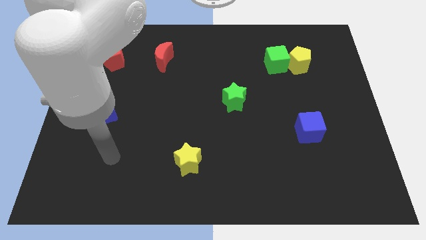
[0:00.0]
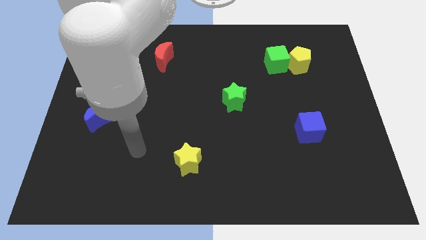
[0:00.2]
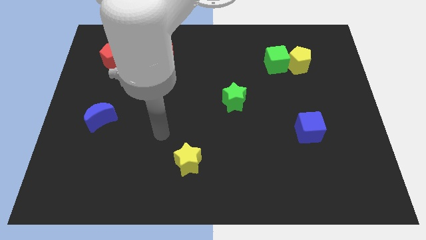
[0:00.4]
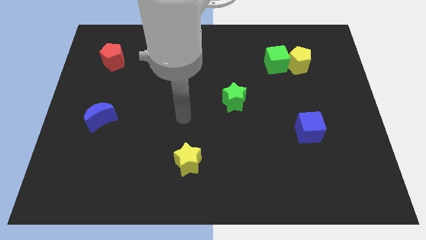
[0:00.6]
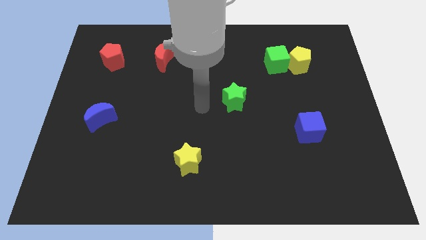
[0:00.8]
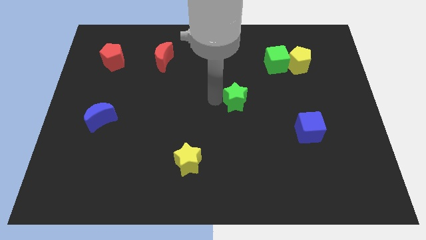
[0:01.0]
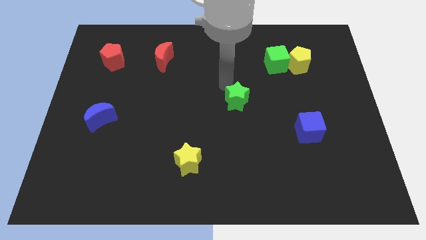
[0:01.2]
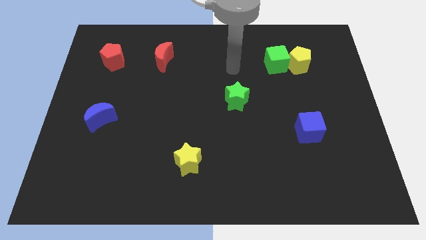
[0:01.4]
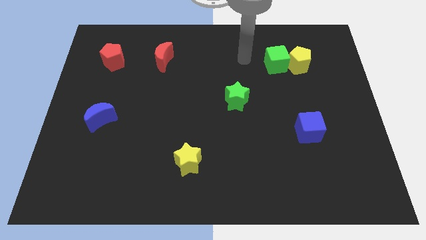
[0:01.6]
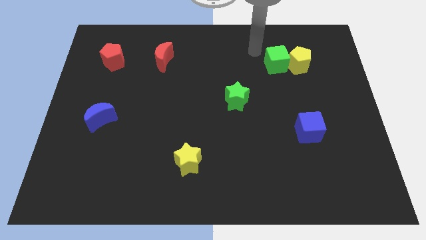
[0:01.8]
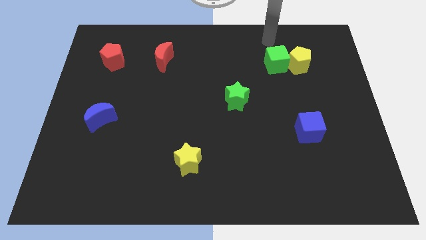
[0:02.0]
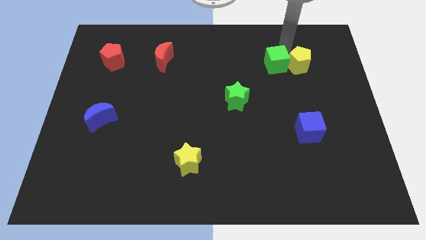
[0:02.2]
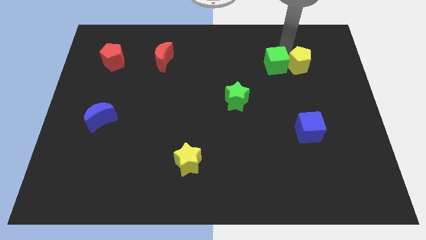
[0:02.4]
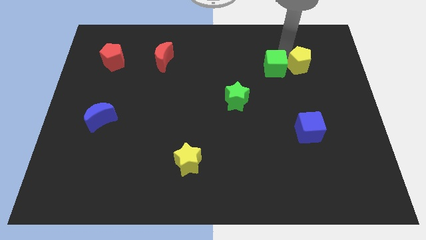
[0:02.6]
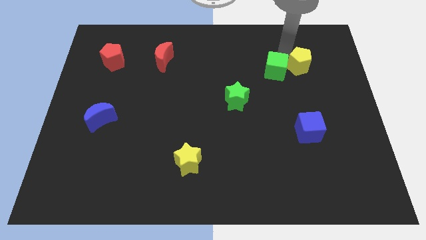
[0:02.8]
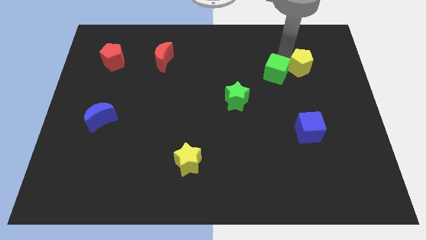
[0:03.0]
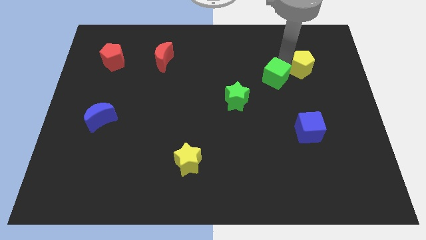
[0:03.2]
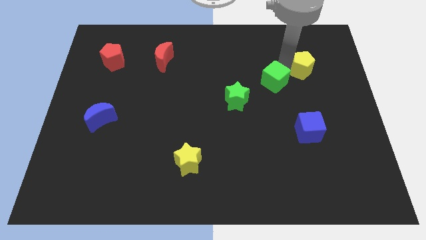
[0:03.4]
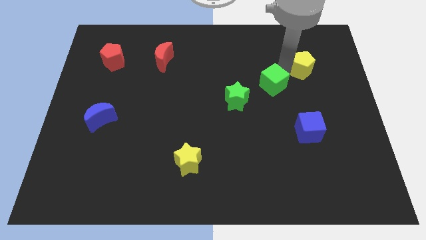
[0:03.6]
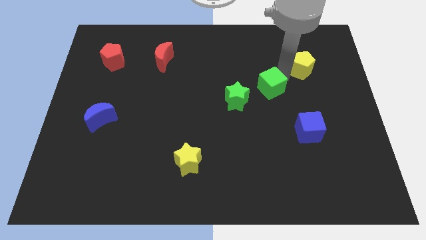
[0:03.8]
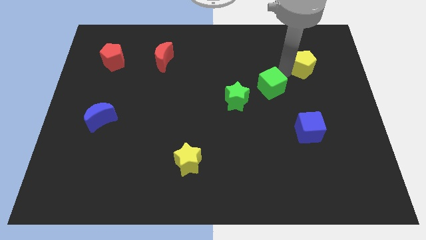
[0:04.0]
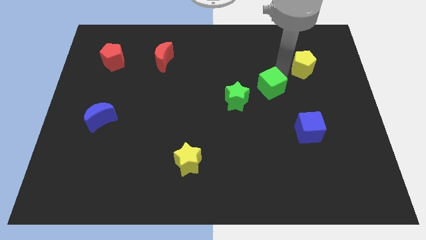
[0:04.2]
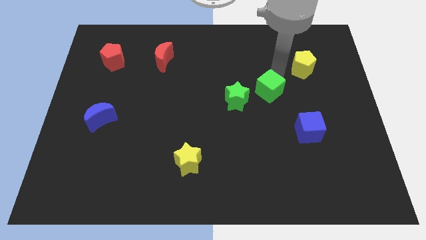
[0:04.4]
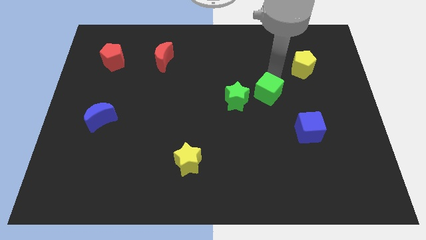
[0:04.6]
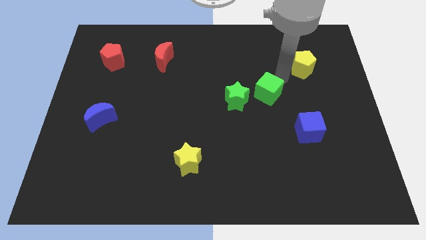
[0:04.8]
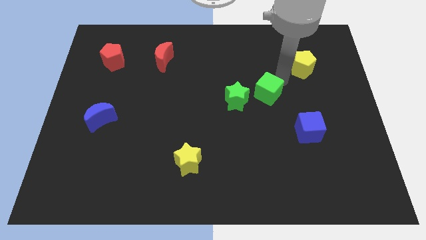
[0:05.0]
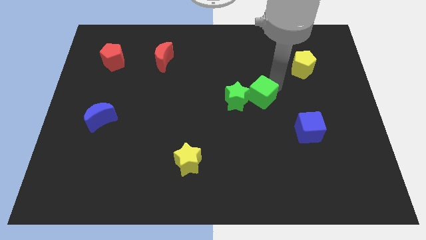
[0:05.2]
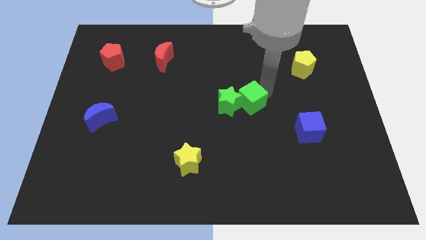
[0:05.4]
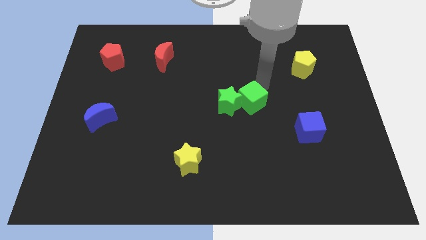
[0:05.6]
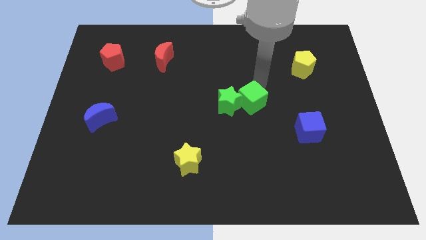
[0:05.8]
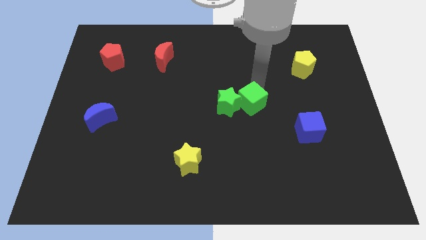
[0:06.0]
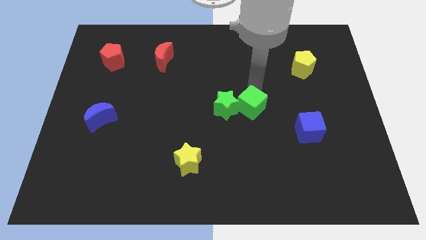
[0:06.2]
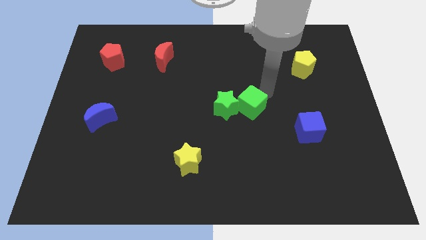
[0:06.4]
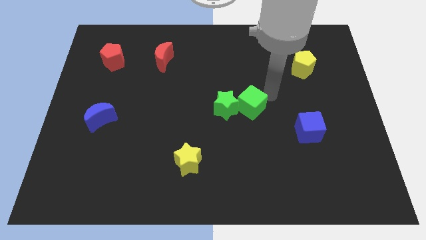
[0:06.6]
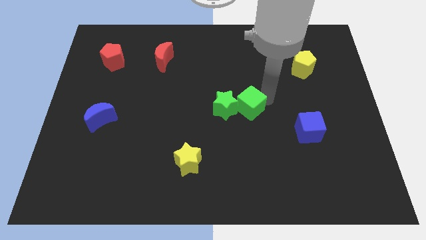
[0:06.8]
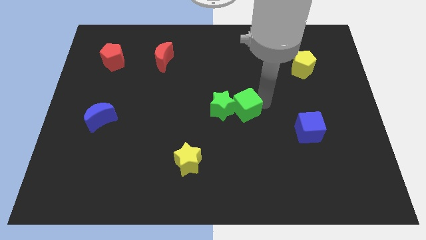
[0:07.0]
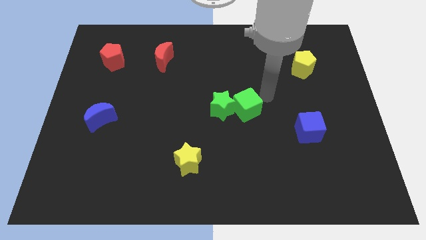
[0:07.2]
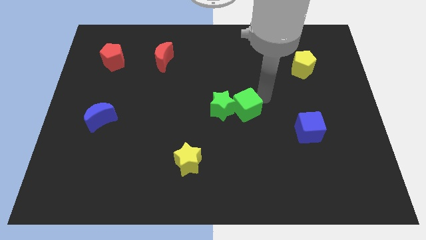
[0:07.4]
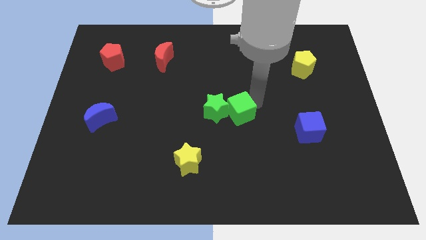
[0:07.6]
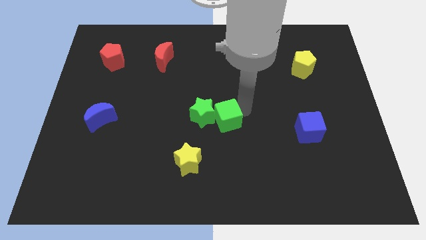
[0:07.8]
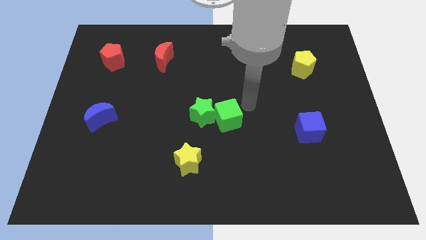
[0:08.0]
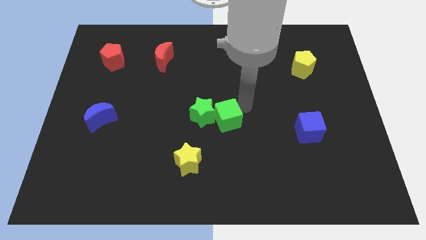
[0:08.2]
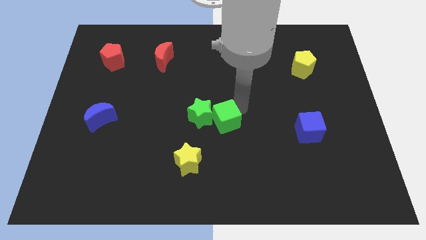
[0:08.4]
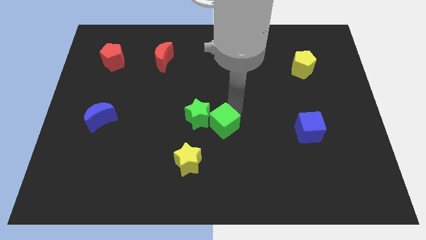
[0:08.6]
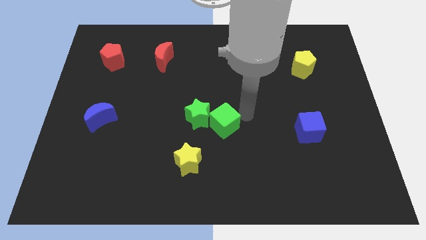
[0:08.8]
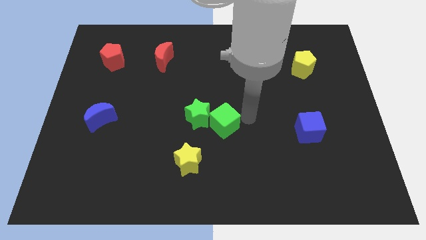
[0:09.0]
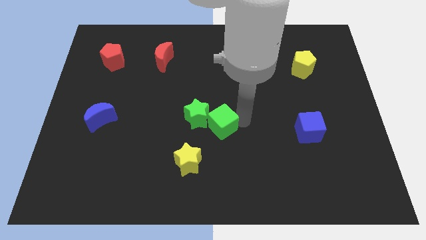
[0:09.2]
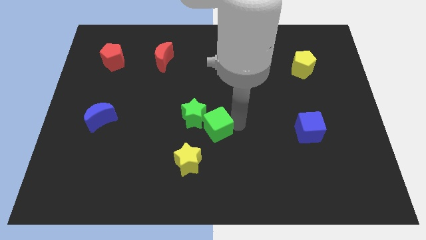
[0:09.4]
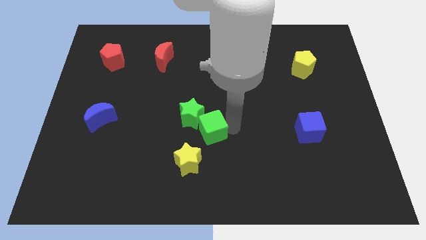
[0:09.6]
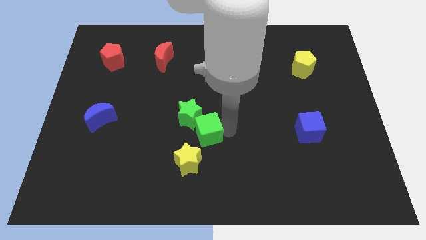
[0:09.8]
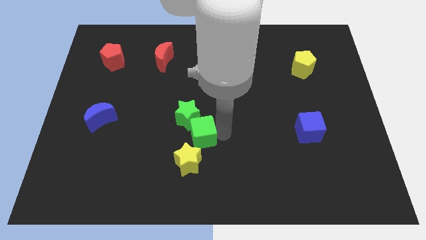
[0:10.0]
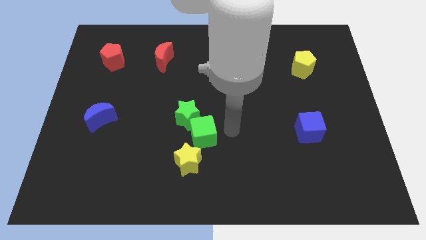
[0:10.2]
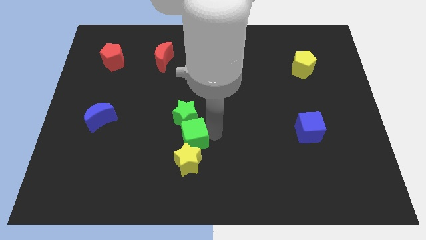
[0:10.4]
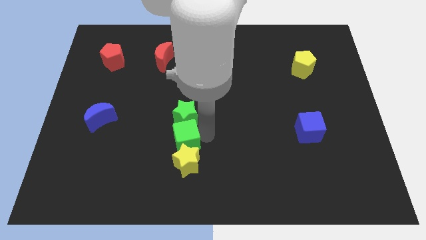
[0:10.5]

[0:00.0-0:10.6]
slide the green cube diagonally up and to the left of the yellow star

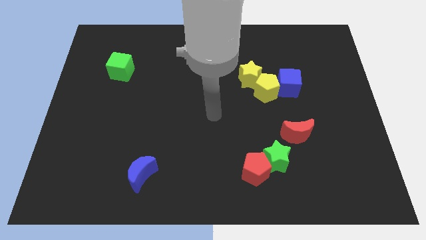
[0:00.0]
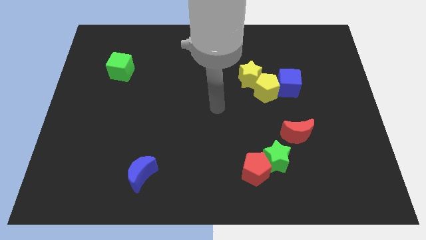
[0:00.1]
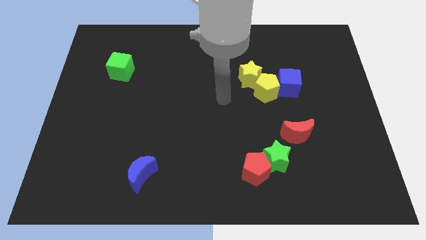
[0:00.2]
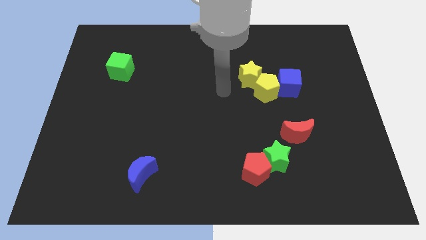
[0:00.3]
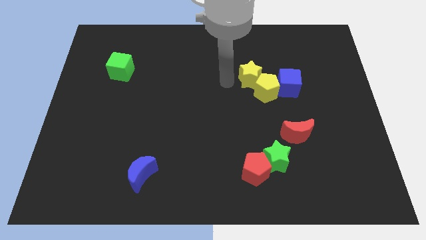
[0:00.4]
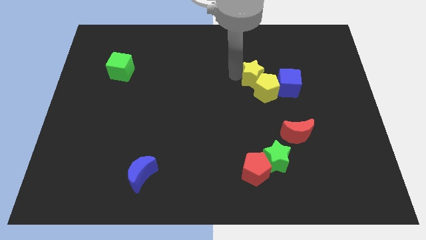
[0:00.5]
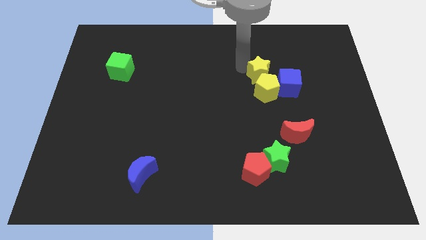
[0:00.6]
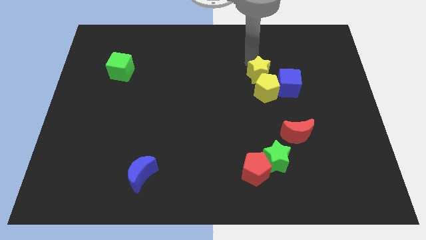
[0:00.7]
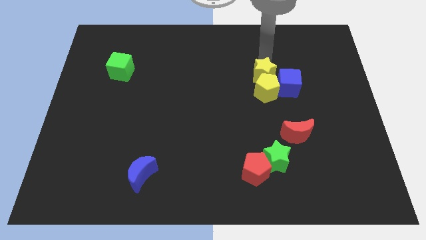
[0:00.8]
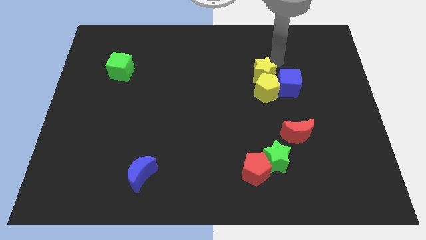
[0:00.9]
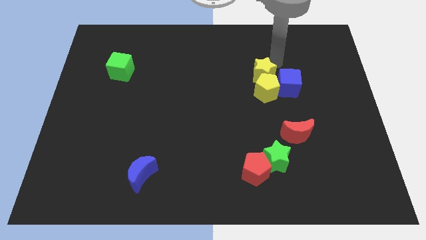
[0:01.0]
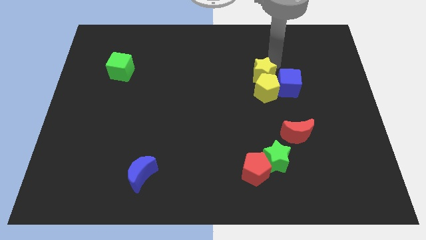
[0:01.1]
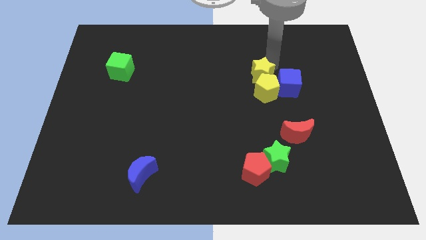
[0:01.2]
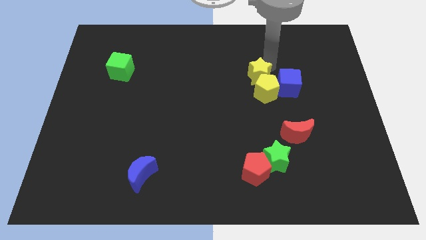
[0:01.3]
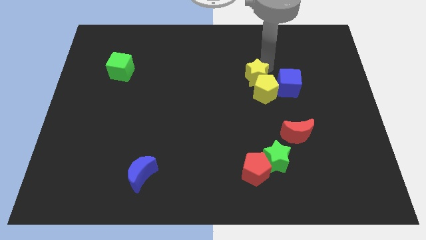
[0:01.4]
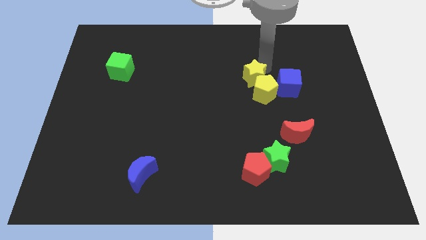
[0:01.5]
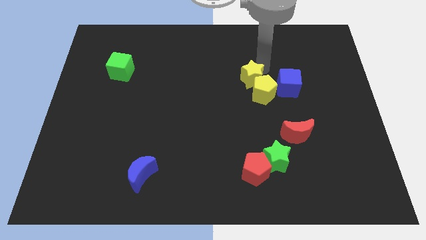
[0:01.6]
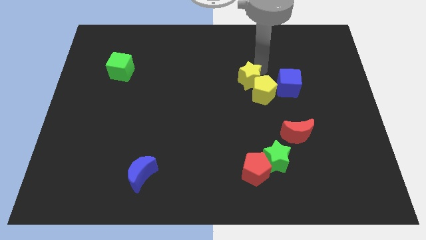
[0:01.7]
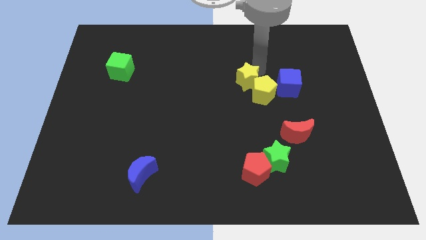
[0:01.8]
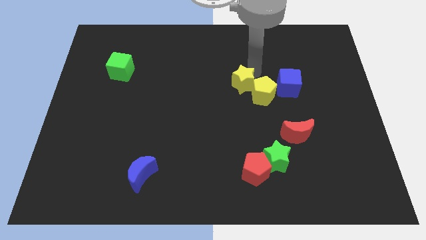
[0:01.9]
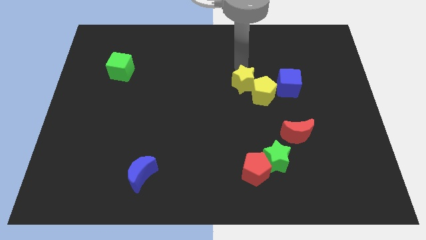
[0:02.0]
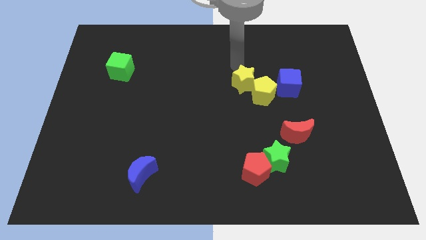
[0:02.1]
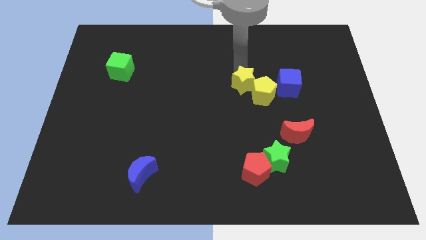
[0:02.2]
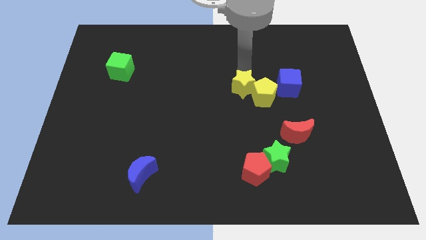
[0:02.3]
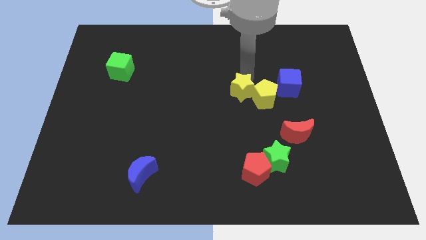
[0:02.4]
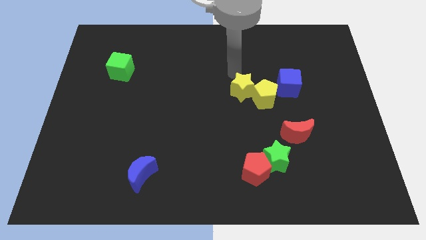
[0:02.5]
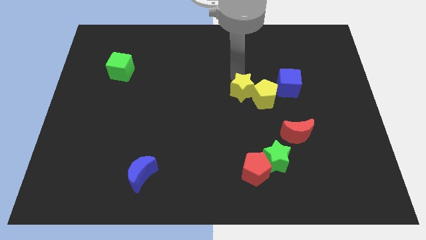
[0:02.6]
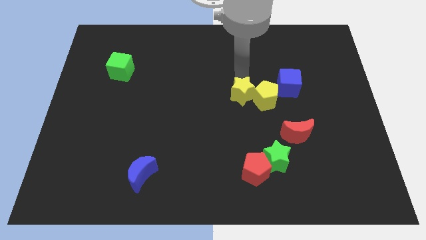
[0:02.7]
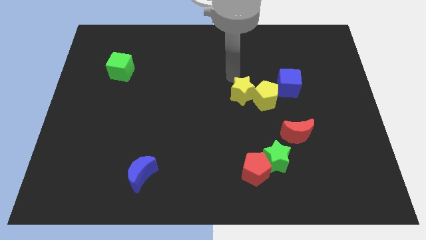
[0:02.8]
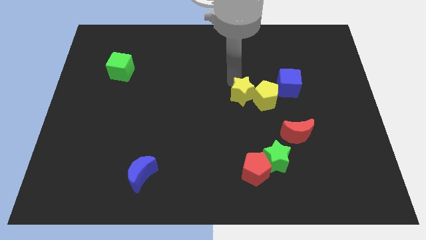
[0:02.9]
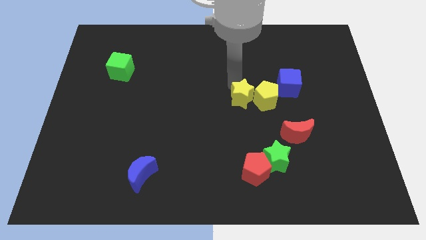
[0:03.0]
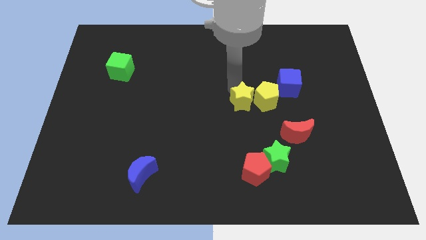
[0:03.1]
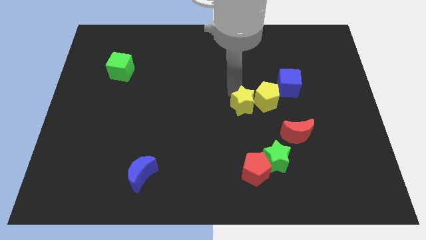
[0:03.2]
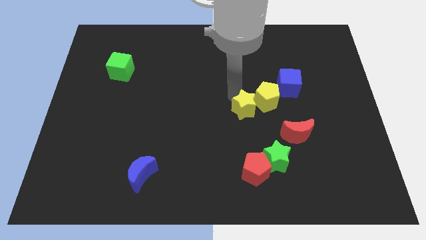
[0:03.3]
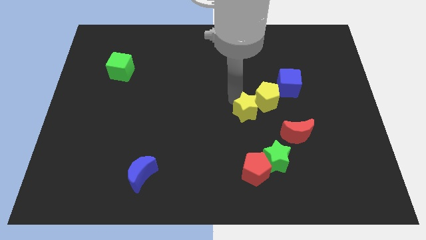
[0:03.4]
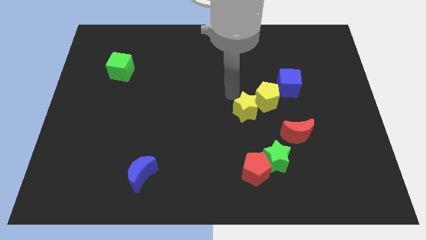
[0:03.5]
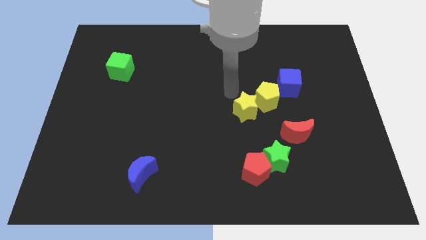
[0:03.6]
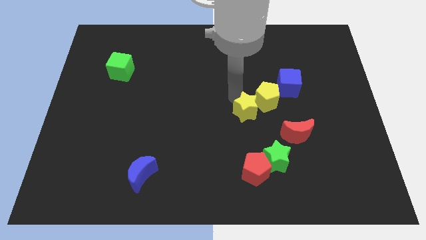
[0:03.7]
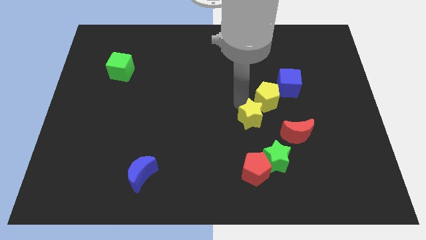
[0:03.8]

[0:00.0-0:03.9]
push the yellow star to the bottom side of the yellow pentagon
